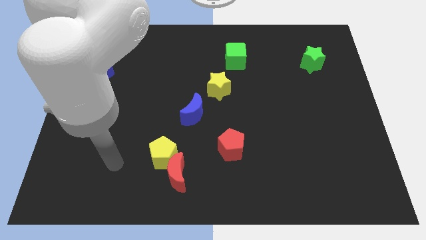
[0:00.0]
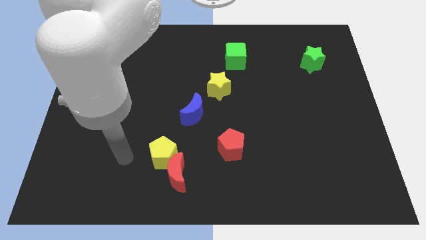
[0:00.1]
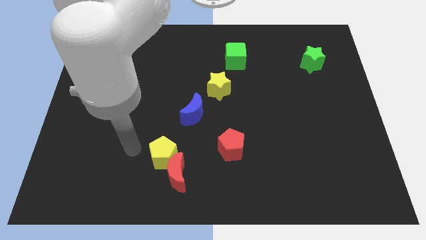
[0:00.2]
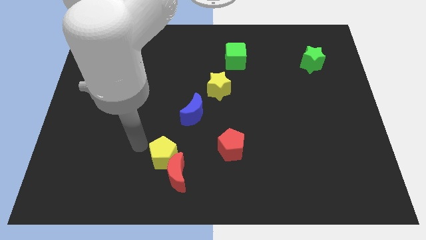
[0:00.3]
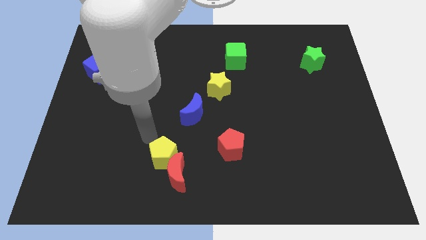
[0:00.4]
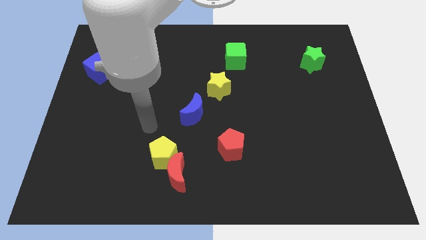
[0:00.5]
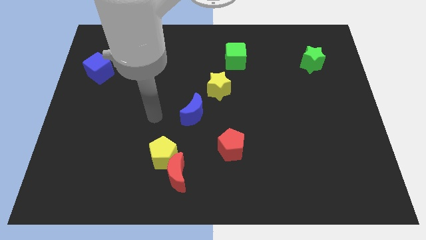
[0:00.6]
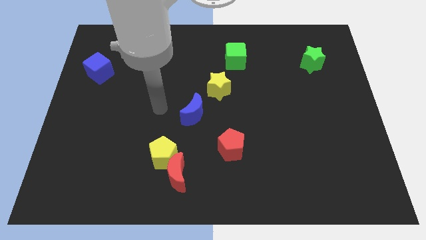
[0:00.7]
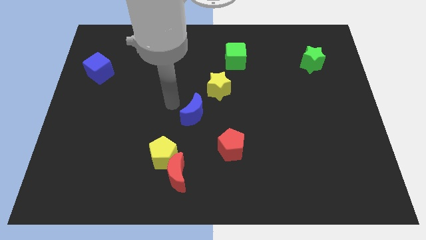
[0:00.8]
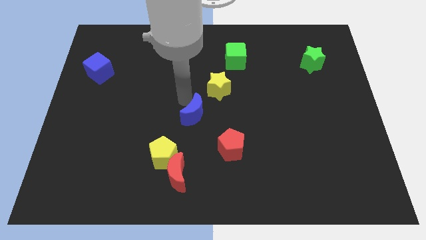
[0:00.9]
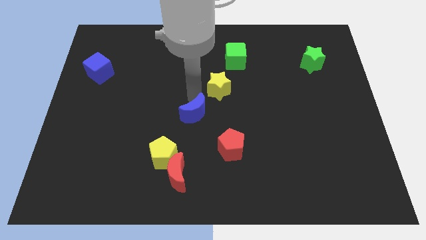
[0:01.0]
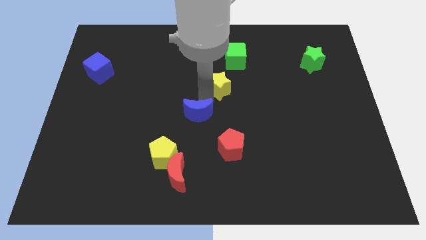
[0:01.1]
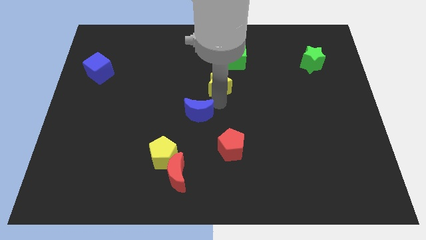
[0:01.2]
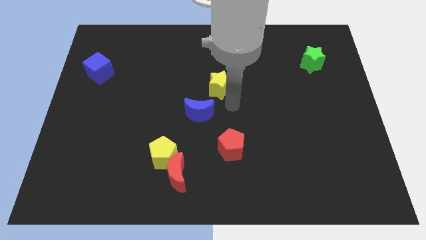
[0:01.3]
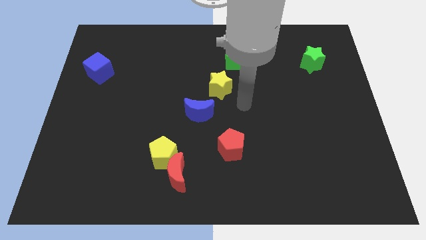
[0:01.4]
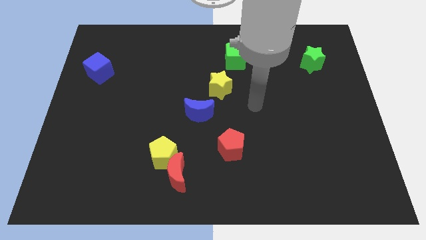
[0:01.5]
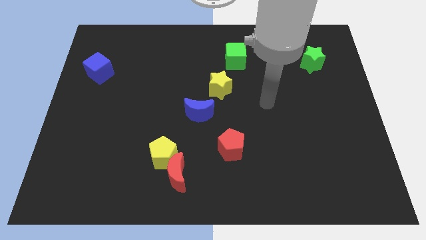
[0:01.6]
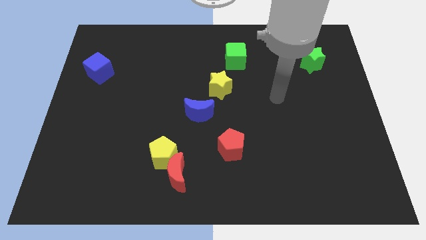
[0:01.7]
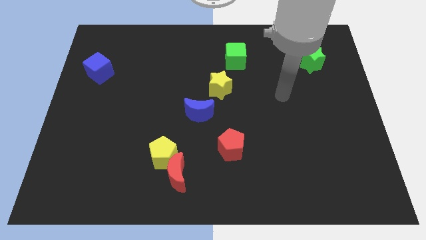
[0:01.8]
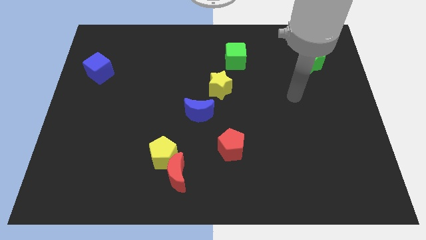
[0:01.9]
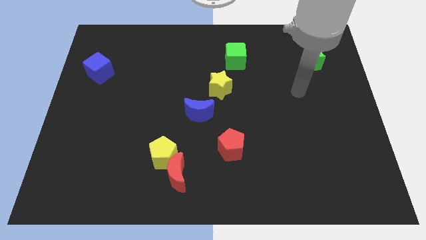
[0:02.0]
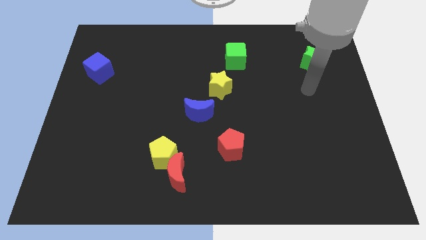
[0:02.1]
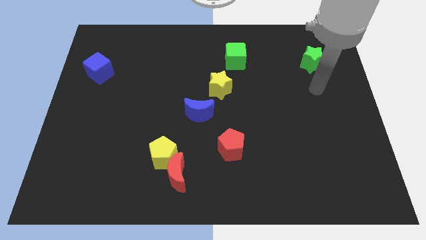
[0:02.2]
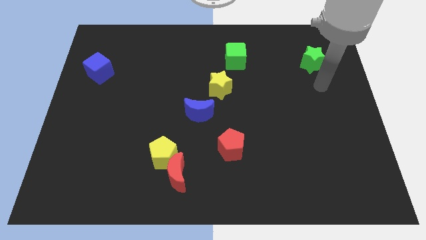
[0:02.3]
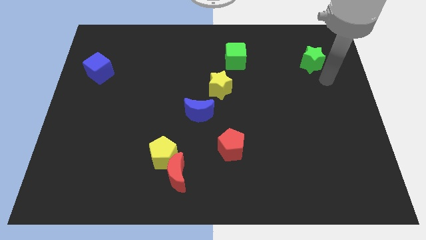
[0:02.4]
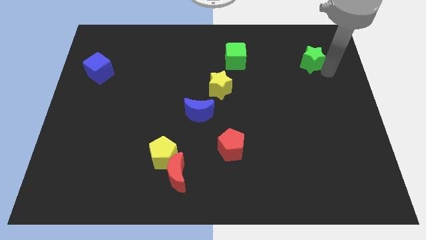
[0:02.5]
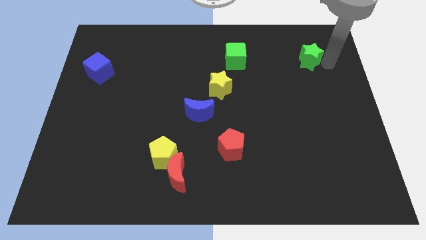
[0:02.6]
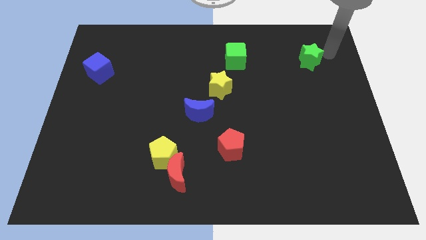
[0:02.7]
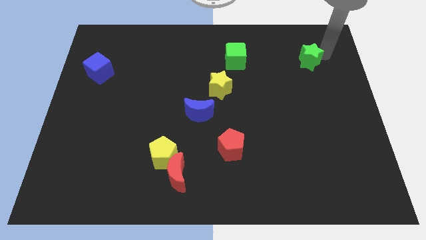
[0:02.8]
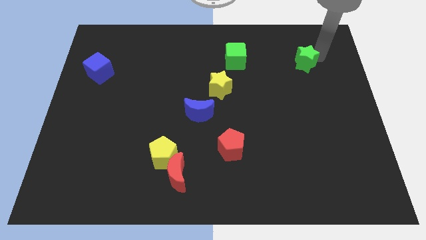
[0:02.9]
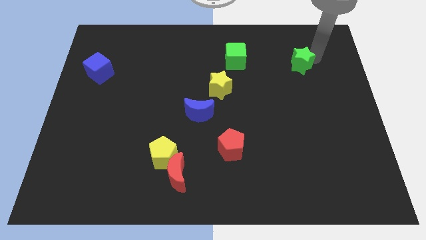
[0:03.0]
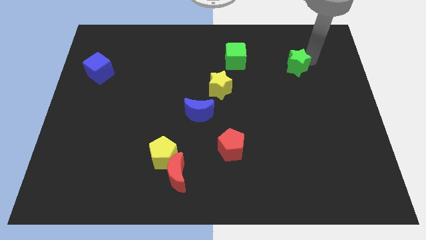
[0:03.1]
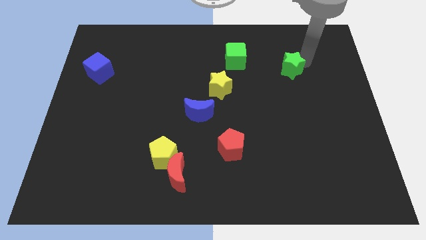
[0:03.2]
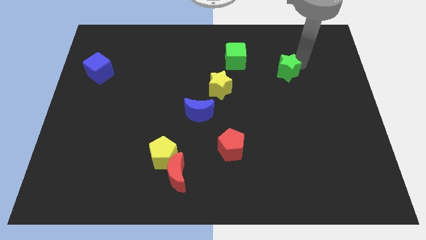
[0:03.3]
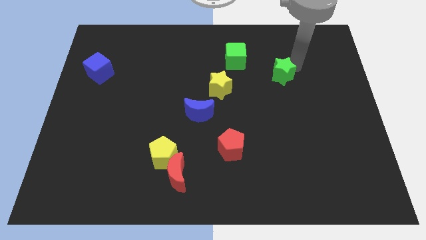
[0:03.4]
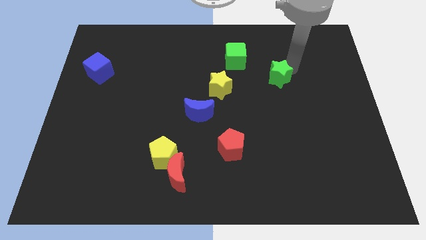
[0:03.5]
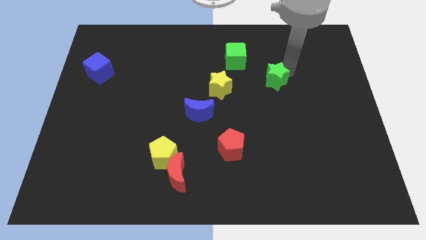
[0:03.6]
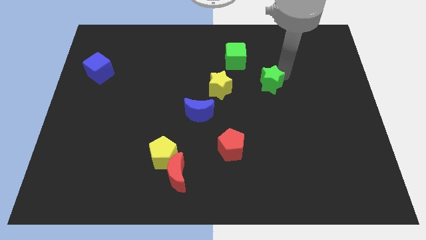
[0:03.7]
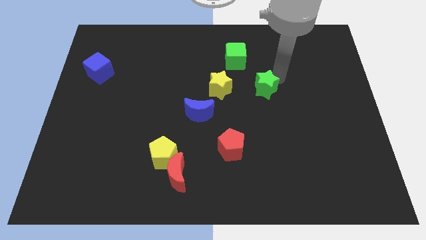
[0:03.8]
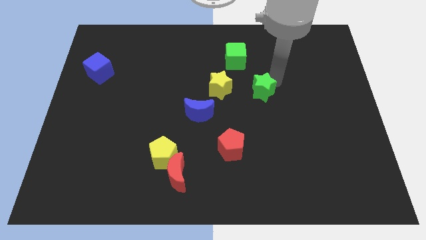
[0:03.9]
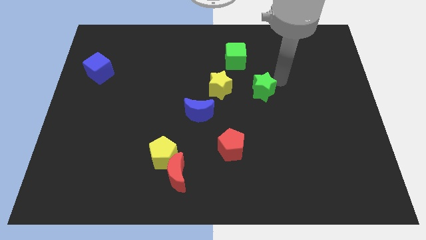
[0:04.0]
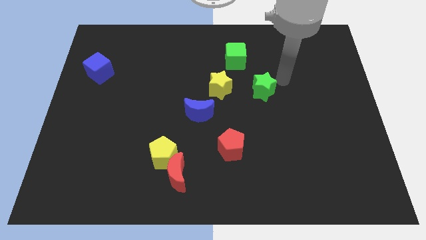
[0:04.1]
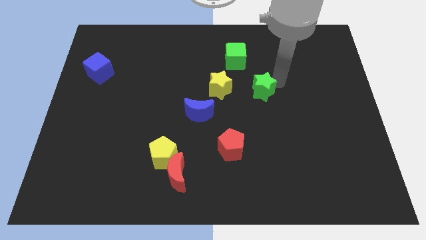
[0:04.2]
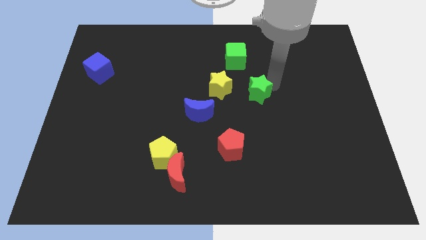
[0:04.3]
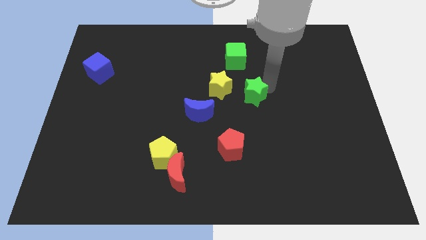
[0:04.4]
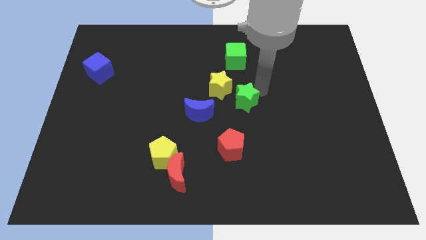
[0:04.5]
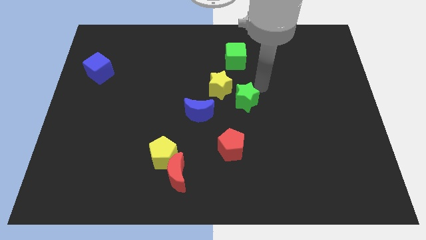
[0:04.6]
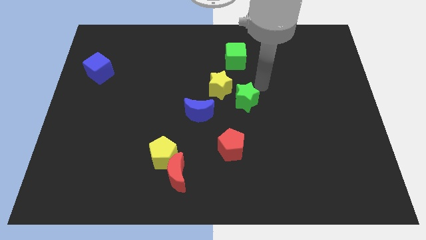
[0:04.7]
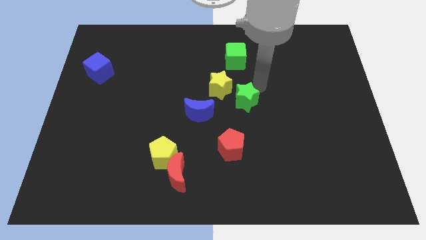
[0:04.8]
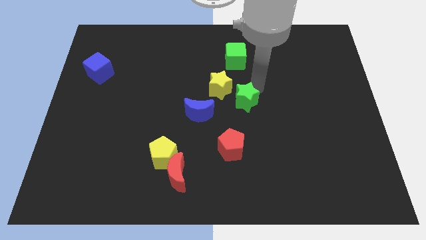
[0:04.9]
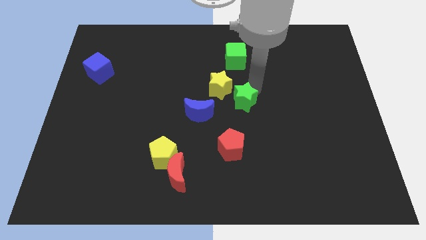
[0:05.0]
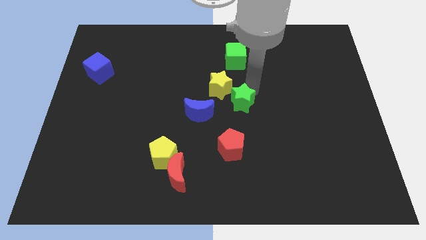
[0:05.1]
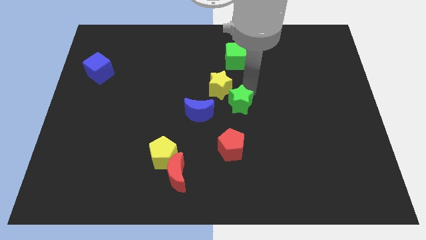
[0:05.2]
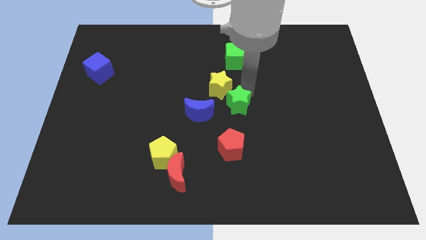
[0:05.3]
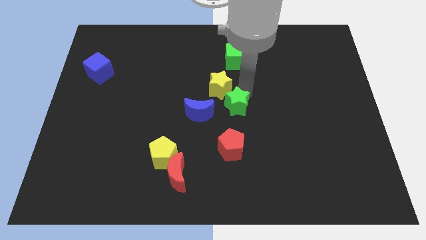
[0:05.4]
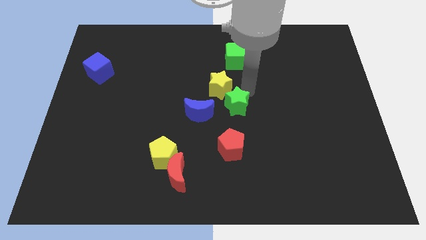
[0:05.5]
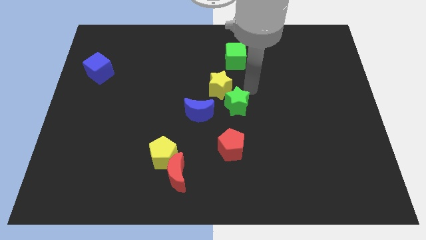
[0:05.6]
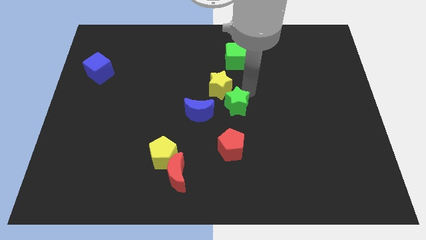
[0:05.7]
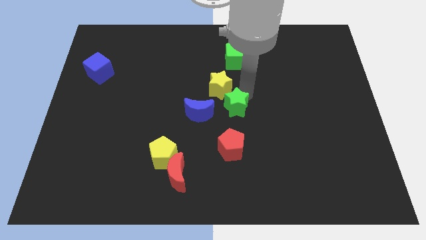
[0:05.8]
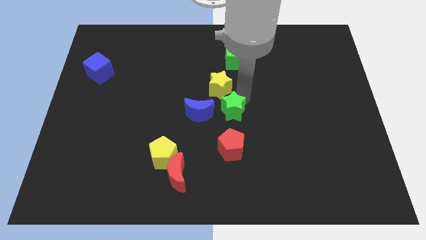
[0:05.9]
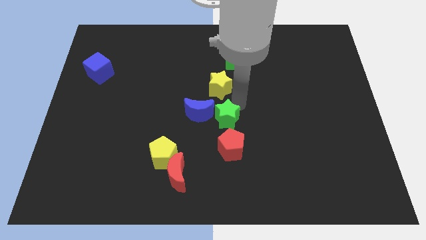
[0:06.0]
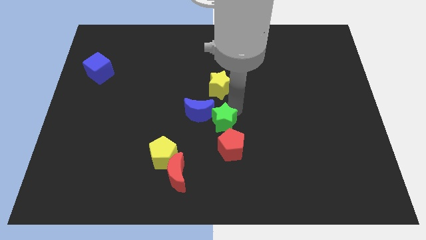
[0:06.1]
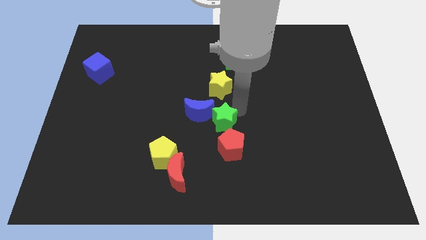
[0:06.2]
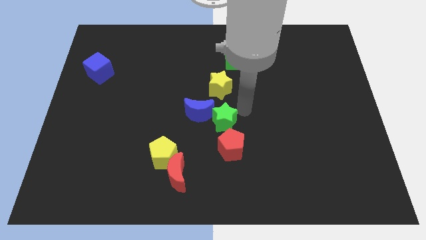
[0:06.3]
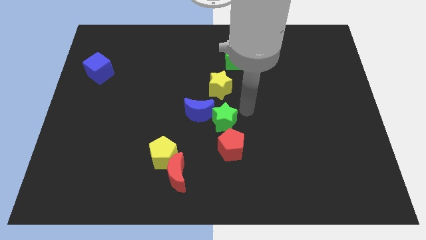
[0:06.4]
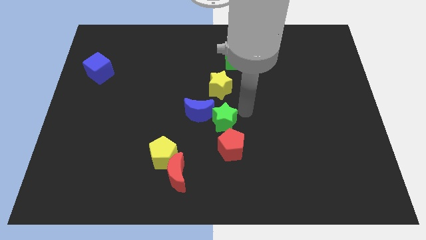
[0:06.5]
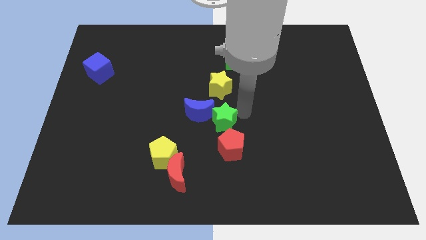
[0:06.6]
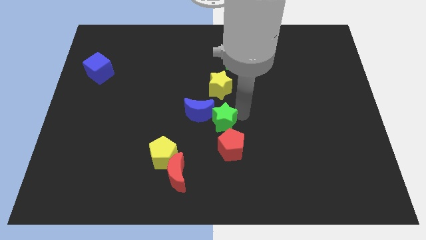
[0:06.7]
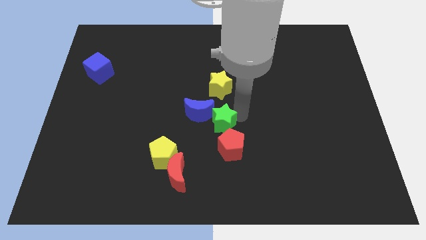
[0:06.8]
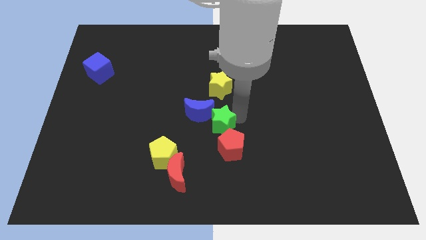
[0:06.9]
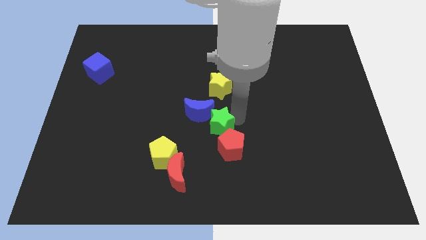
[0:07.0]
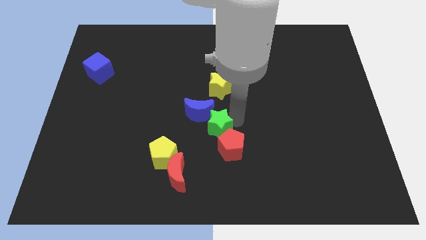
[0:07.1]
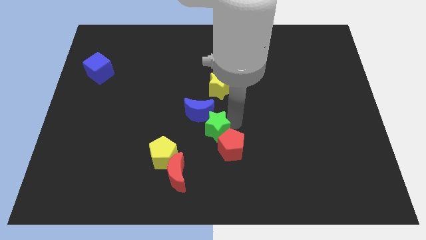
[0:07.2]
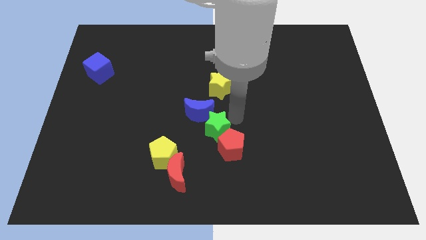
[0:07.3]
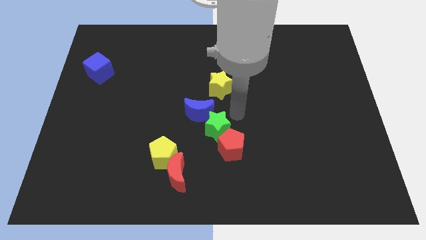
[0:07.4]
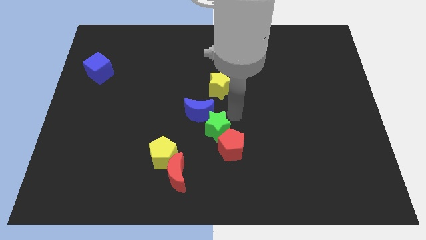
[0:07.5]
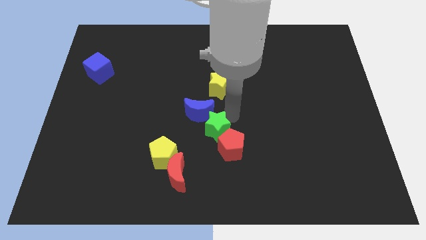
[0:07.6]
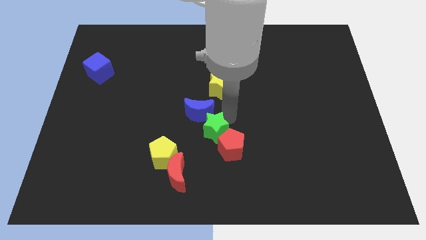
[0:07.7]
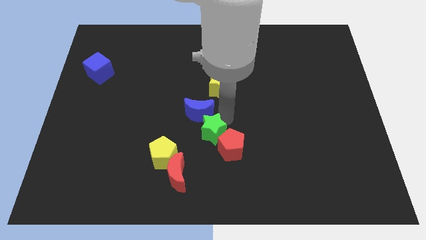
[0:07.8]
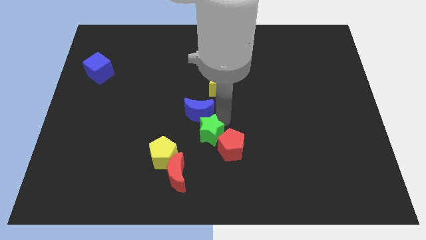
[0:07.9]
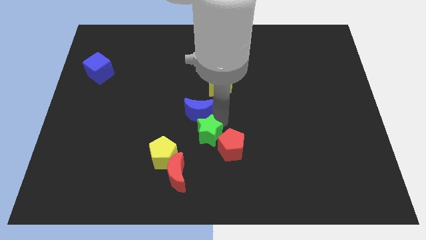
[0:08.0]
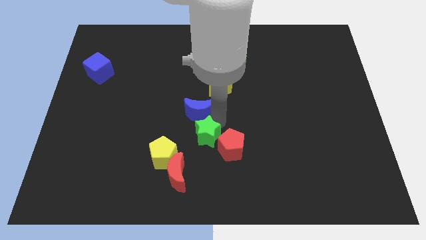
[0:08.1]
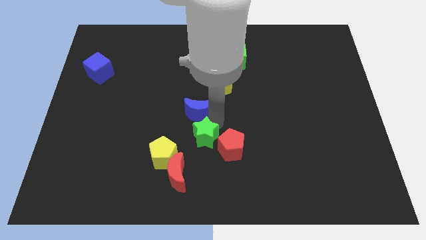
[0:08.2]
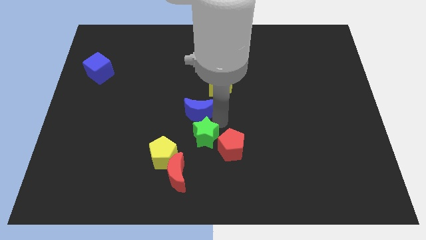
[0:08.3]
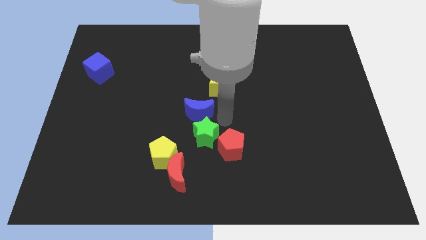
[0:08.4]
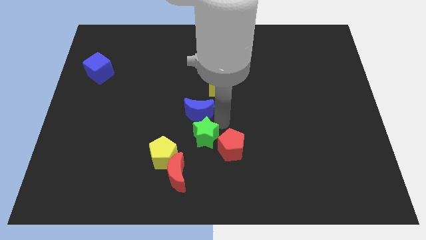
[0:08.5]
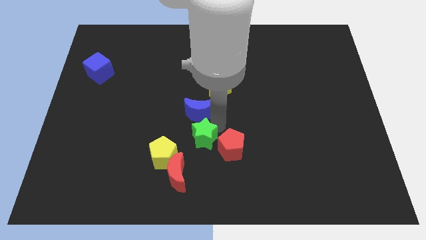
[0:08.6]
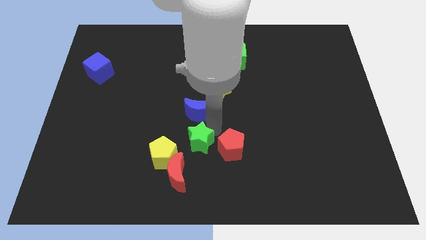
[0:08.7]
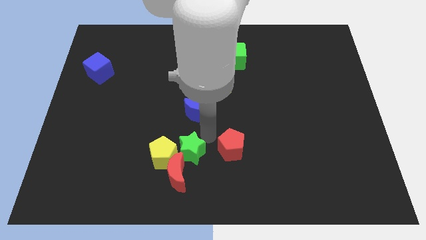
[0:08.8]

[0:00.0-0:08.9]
push the green star next to the yellow pentagon
